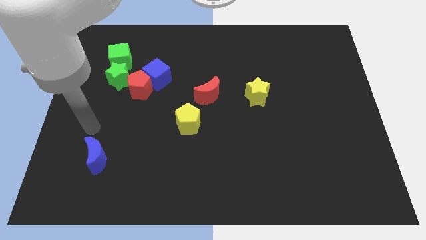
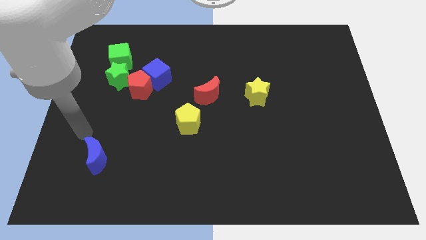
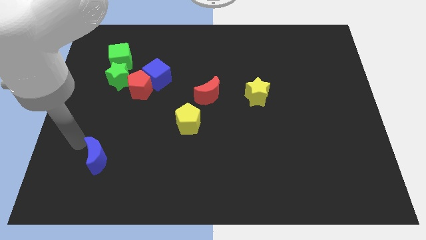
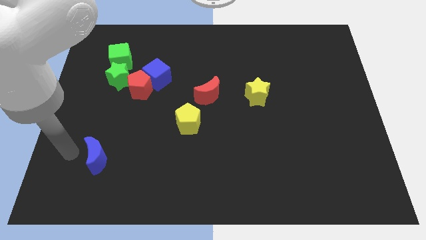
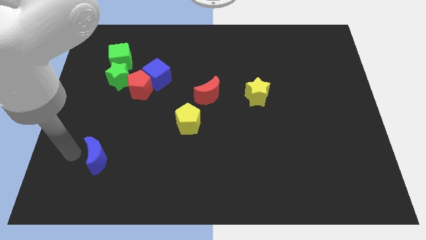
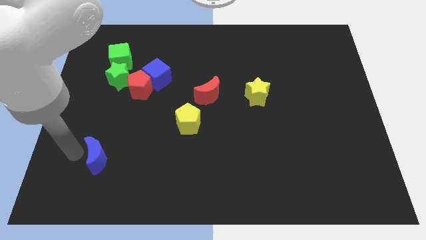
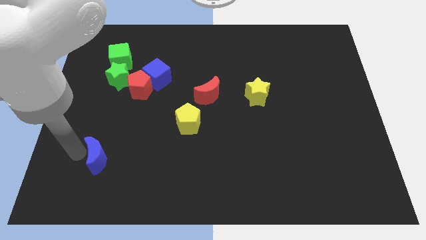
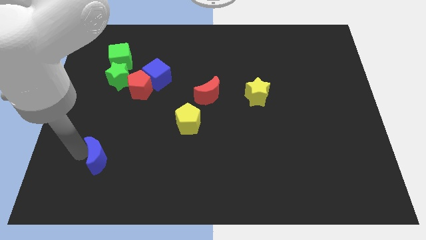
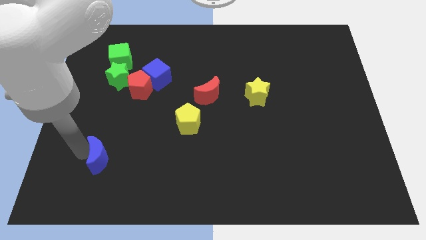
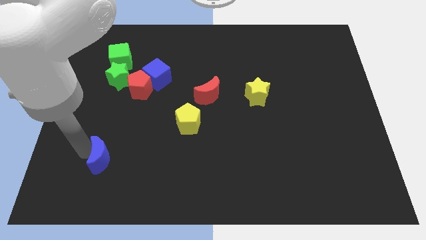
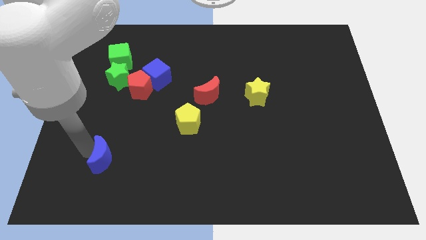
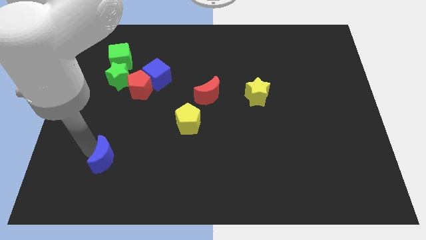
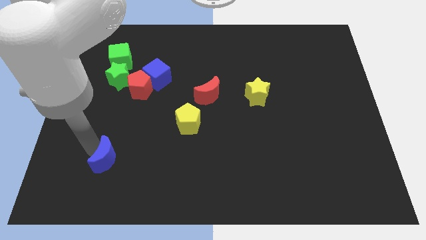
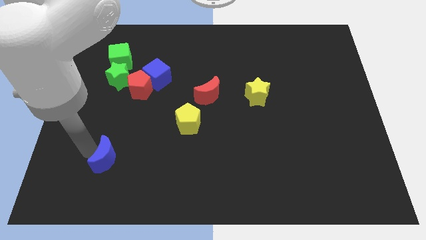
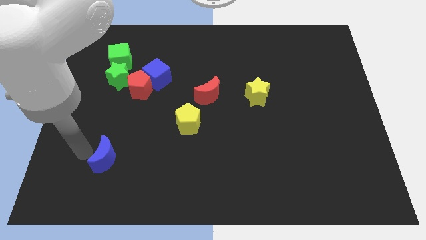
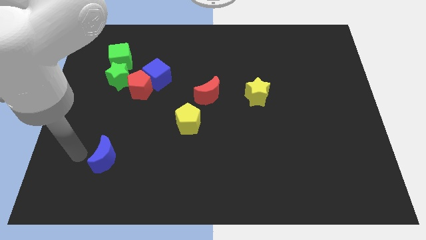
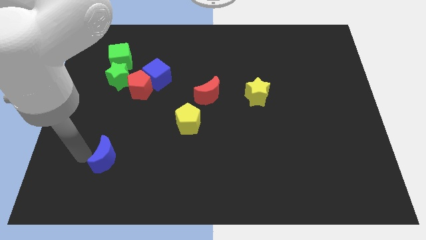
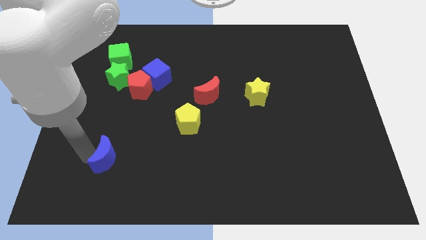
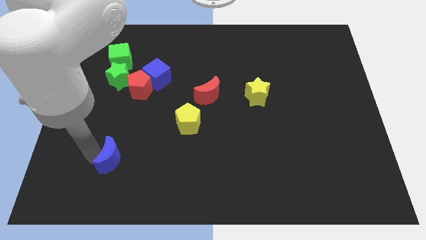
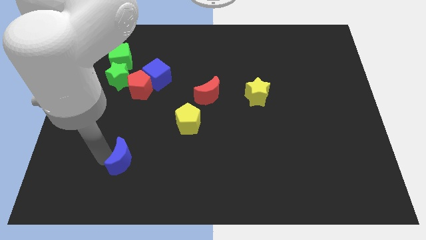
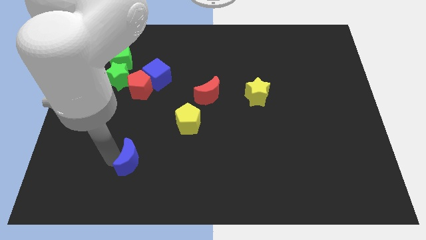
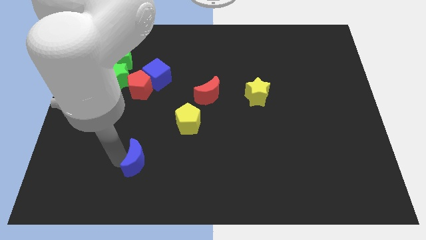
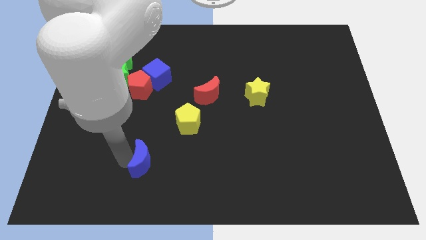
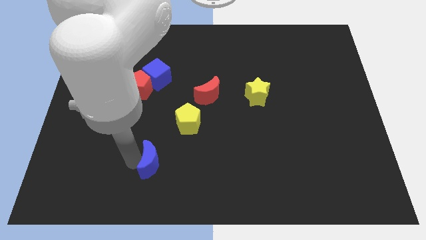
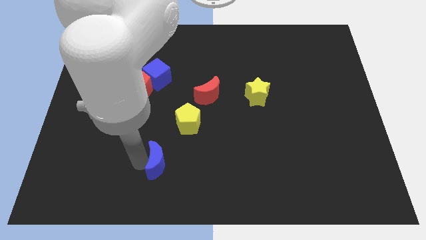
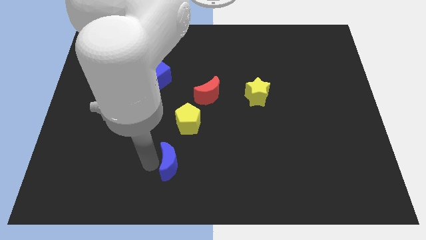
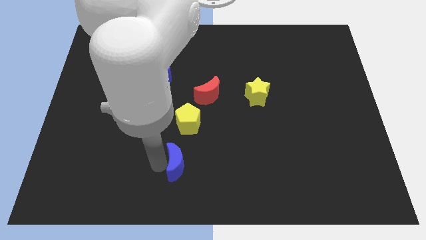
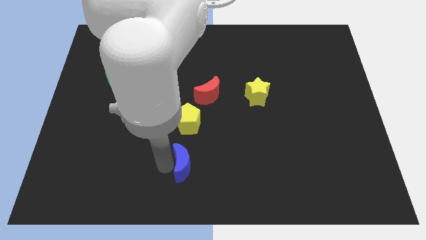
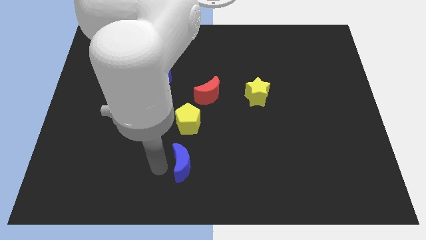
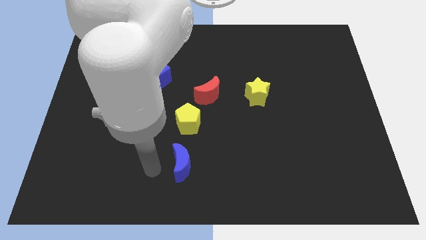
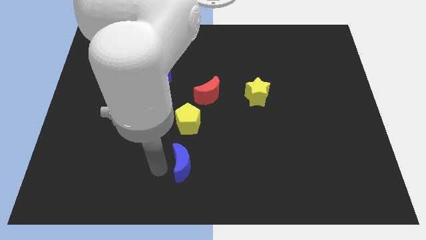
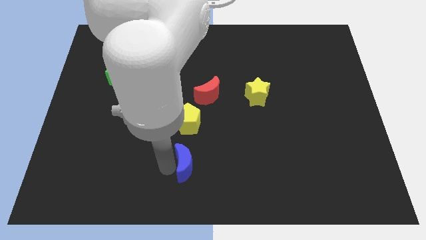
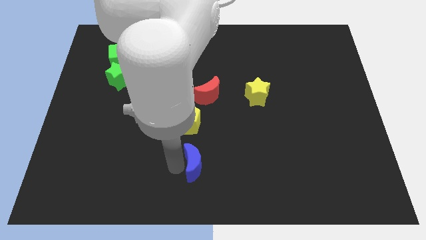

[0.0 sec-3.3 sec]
slide the blue moon right

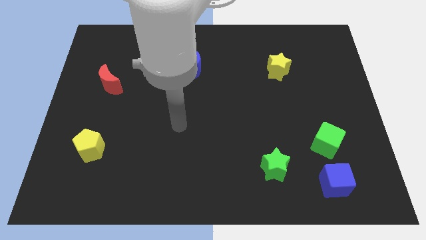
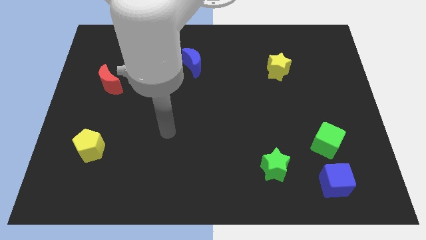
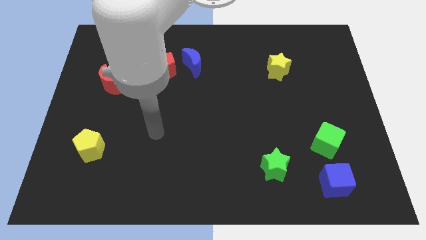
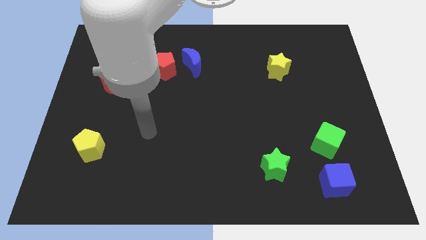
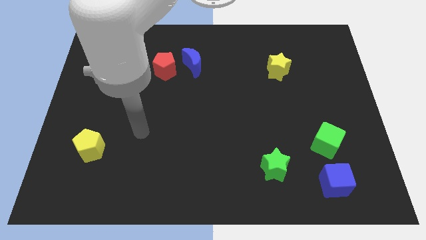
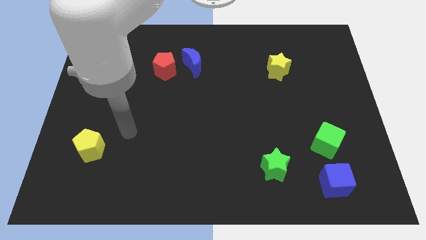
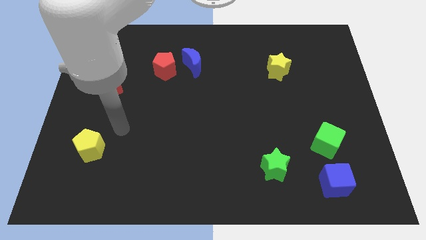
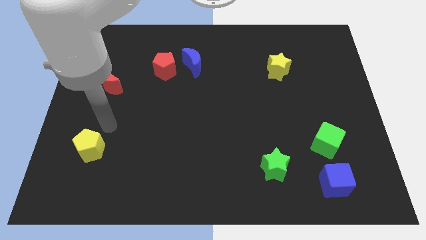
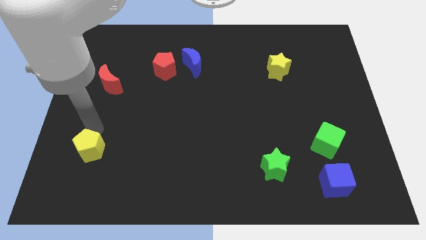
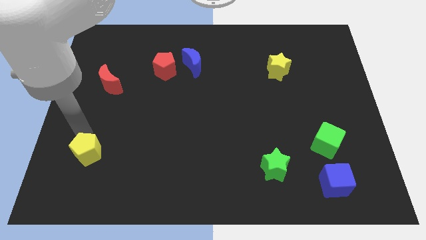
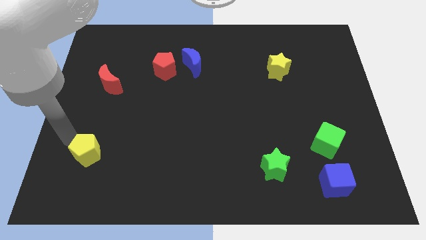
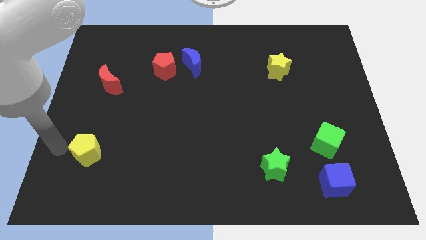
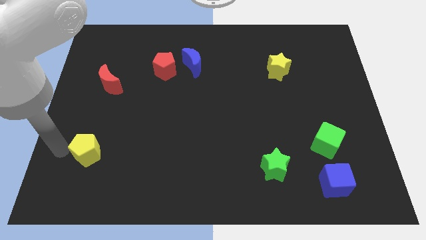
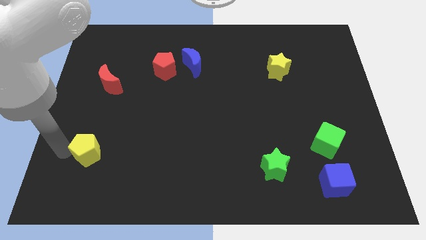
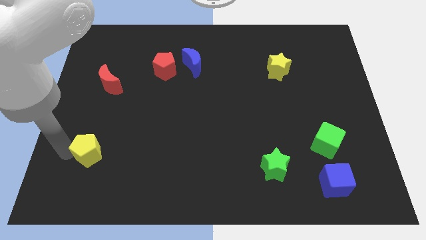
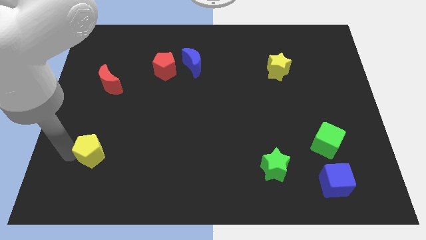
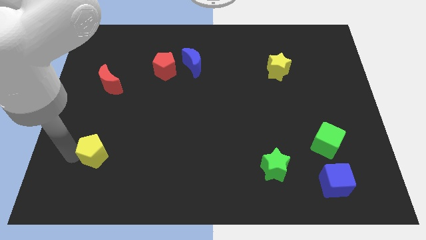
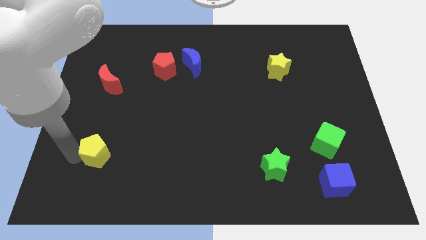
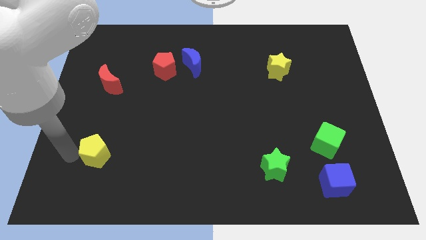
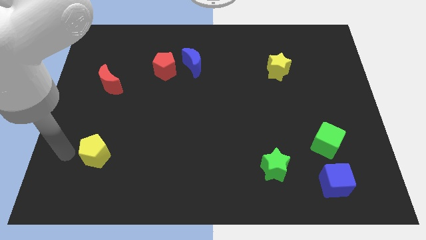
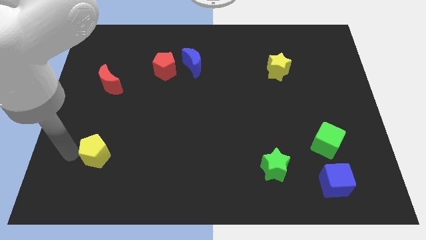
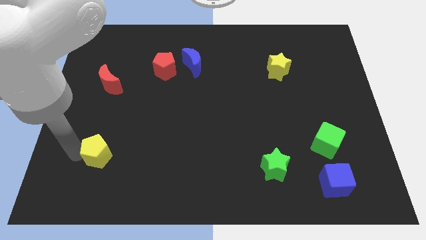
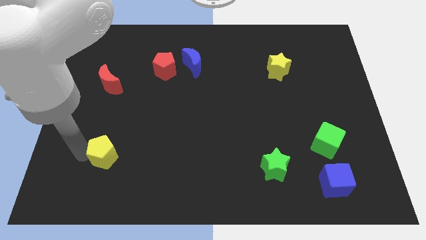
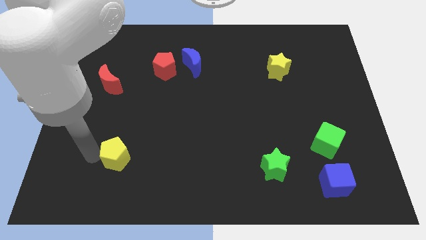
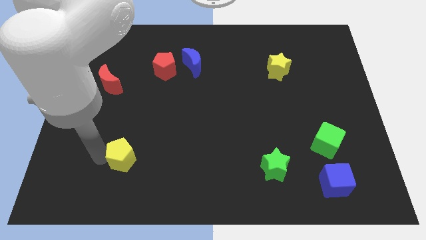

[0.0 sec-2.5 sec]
push the yellow pentagon a bit to the right

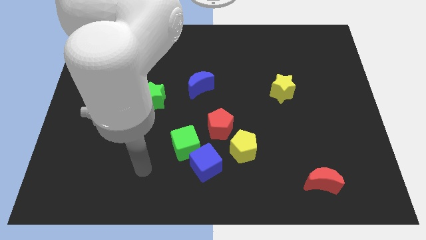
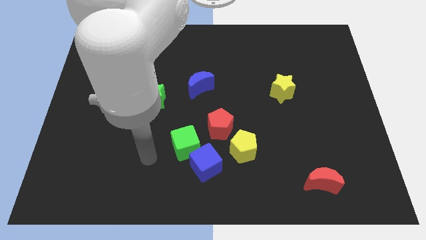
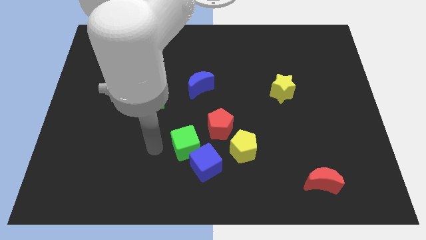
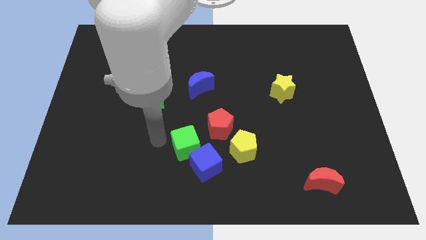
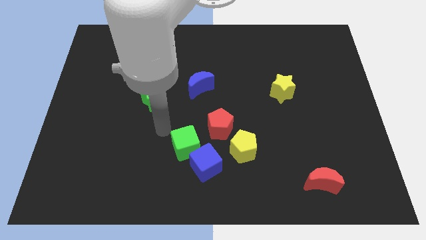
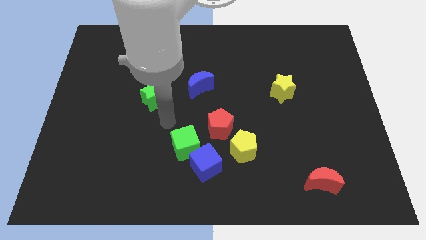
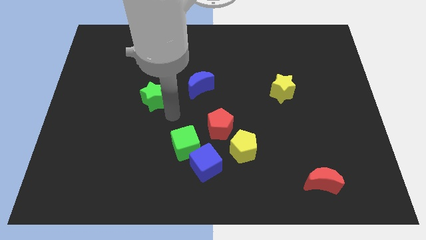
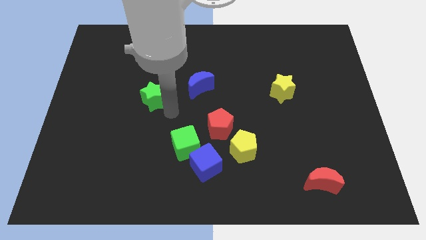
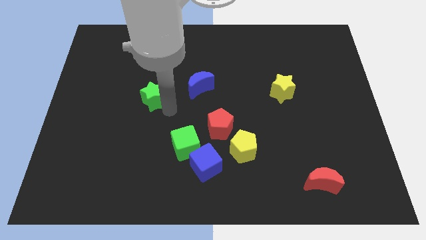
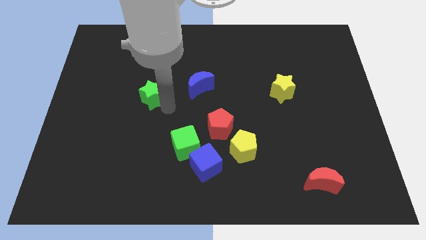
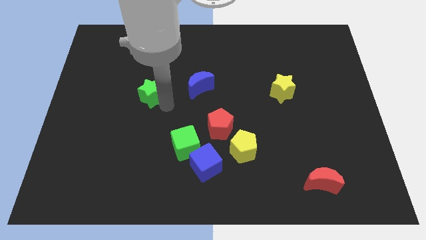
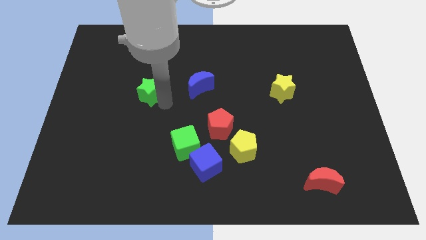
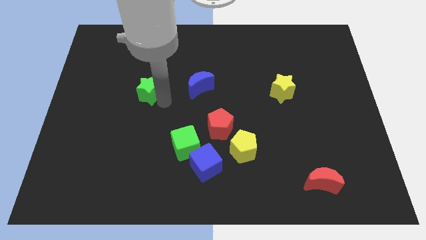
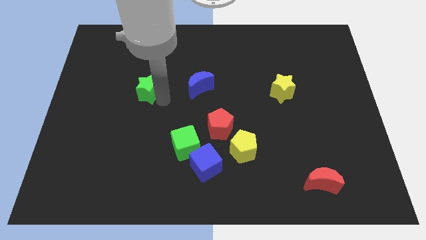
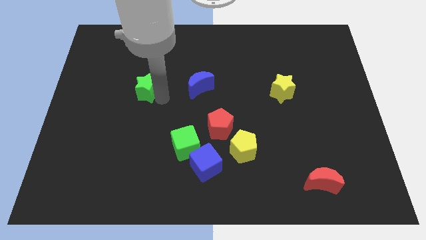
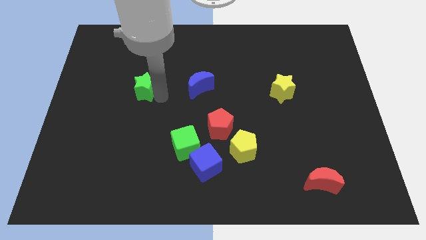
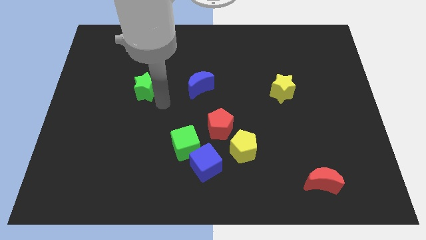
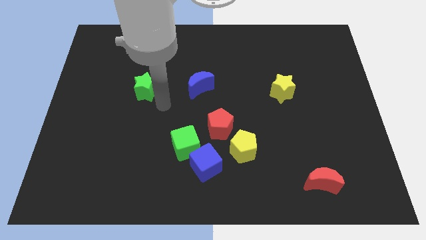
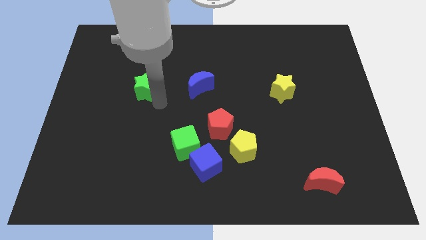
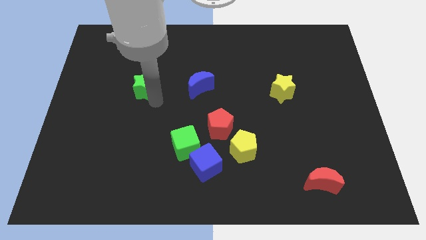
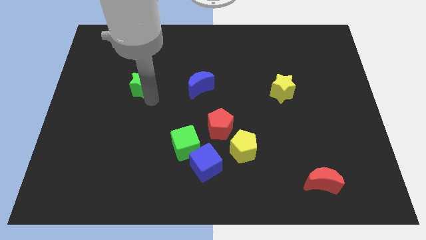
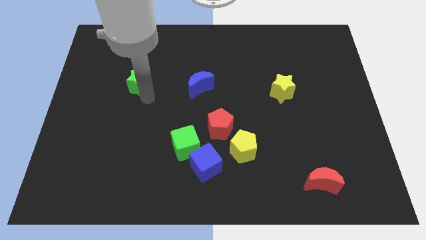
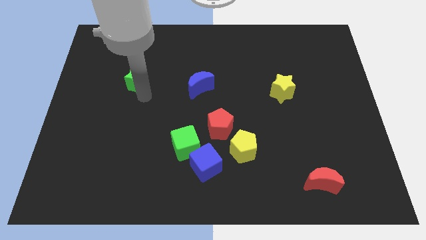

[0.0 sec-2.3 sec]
move the green star up and left slightly

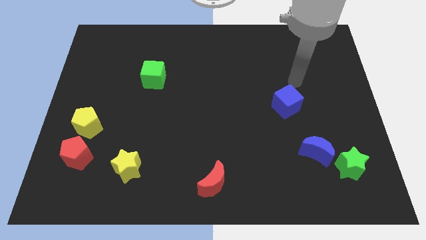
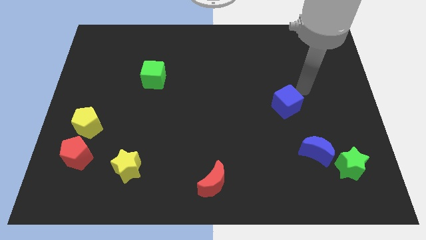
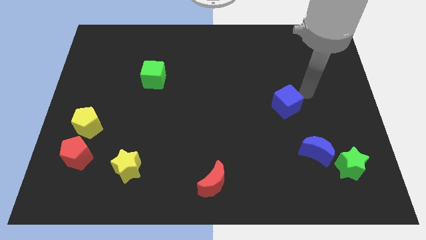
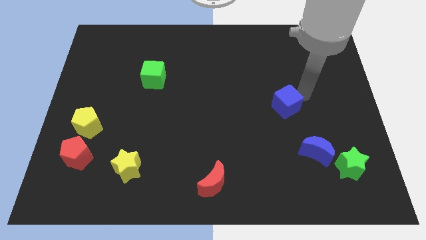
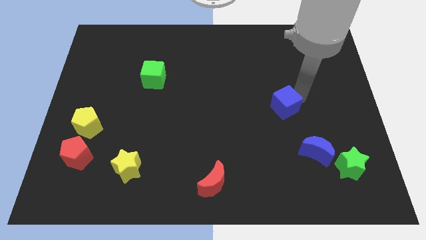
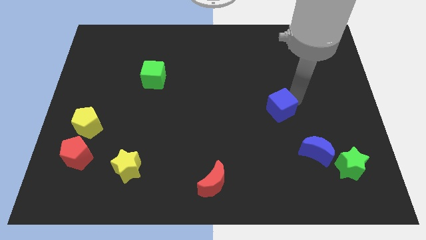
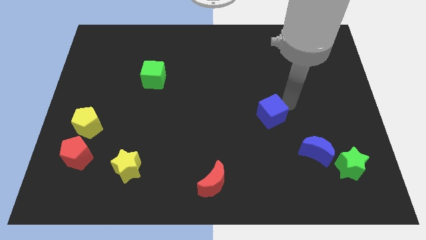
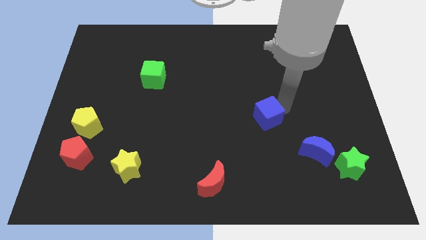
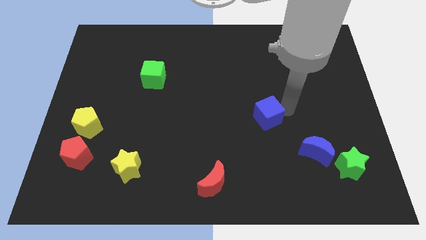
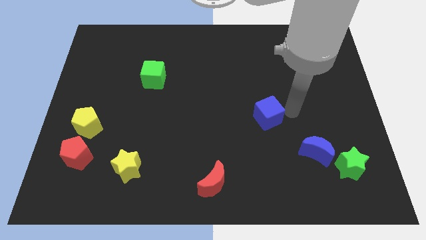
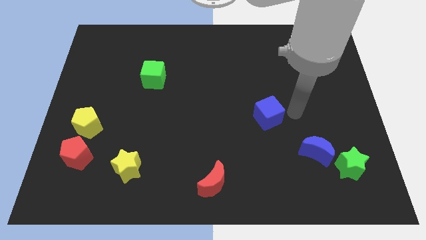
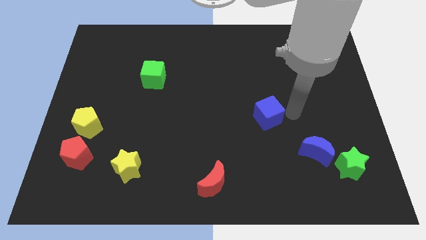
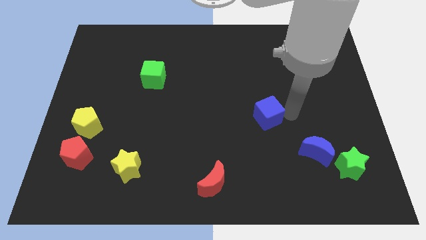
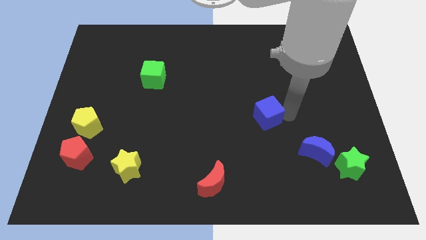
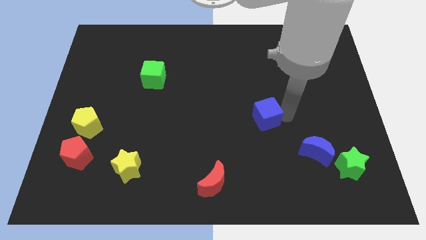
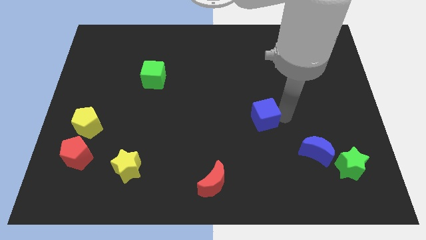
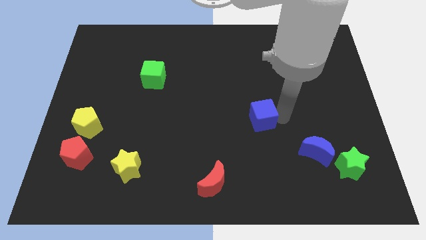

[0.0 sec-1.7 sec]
move the blue cube downwards and to the left diagonally a little bit
